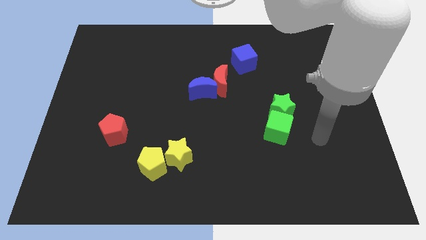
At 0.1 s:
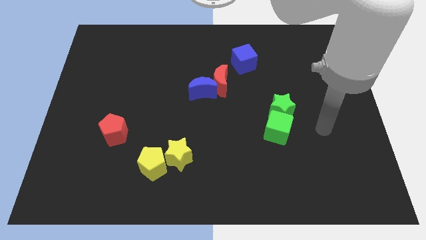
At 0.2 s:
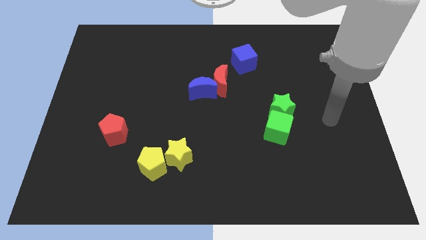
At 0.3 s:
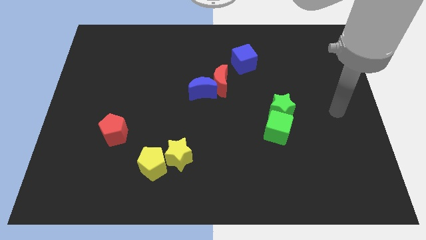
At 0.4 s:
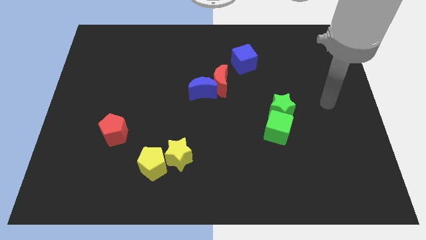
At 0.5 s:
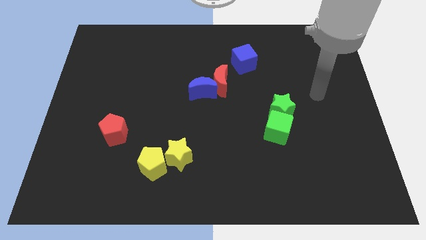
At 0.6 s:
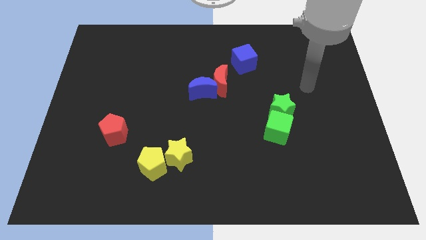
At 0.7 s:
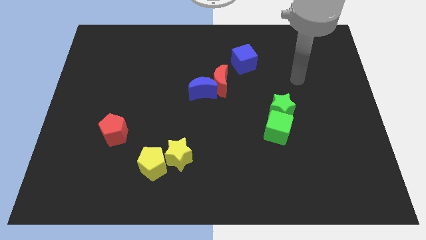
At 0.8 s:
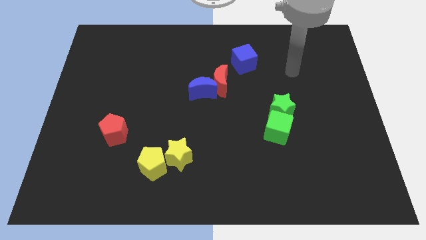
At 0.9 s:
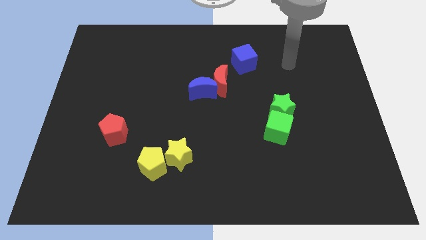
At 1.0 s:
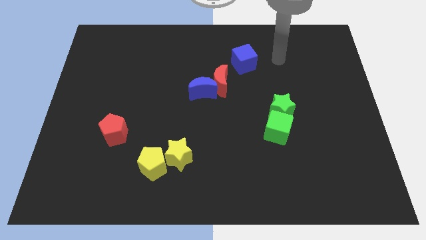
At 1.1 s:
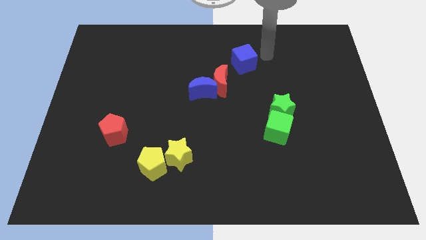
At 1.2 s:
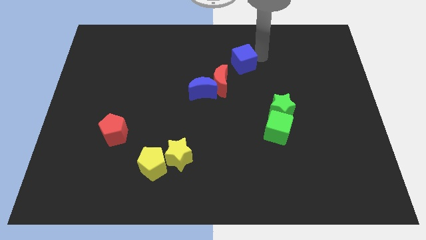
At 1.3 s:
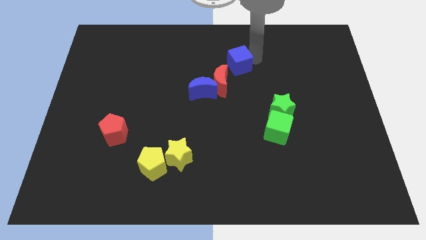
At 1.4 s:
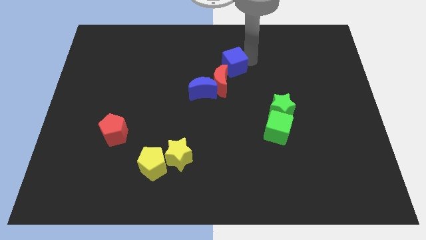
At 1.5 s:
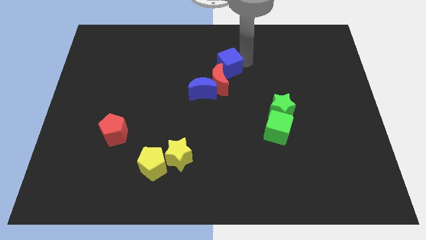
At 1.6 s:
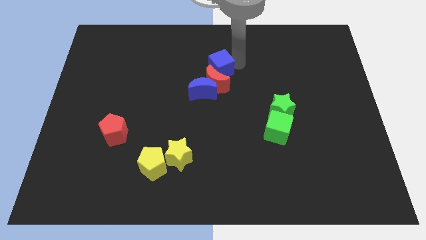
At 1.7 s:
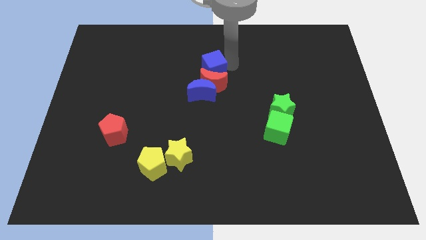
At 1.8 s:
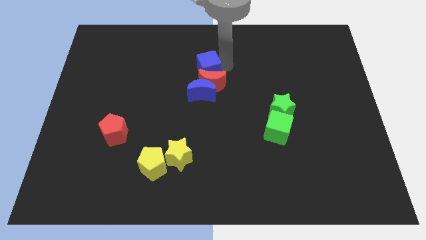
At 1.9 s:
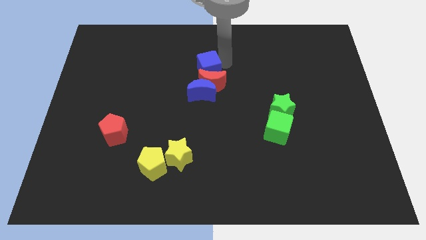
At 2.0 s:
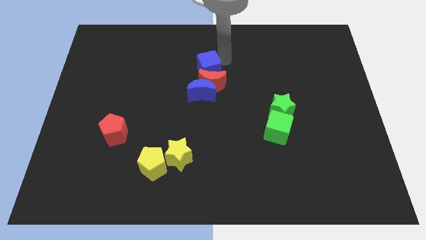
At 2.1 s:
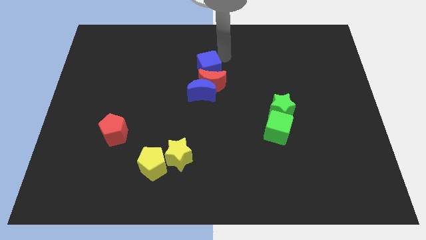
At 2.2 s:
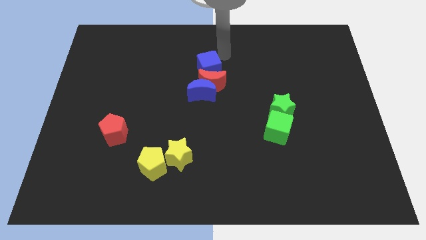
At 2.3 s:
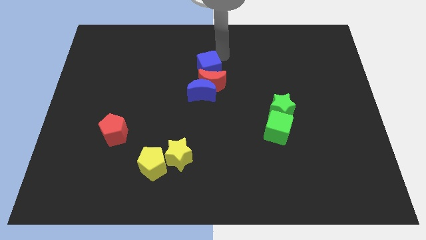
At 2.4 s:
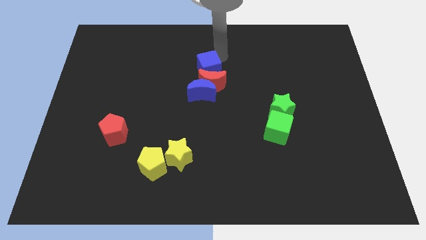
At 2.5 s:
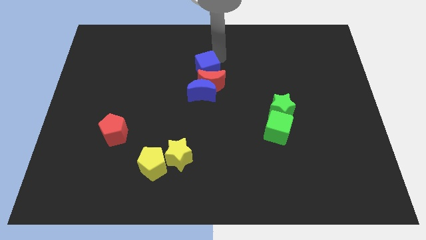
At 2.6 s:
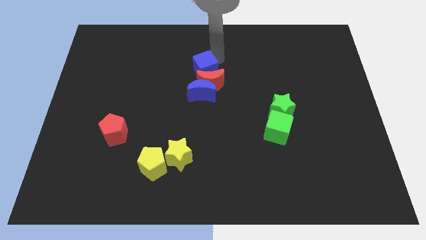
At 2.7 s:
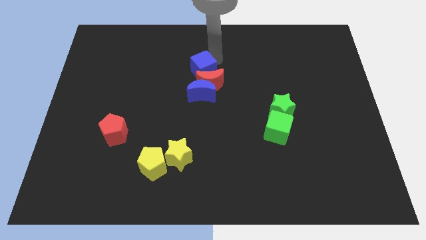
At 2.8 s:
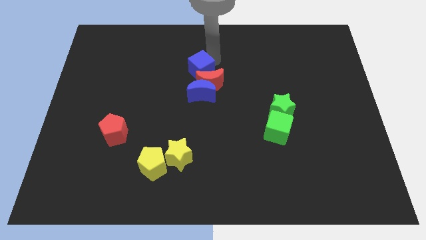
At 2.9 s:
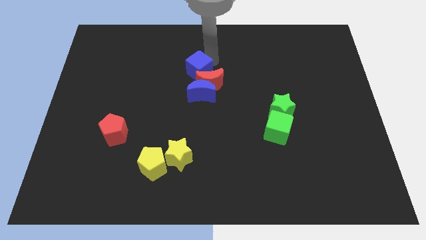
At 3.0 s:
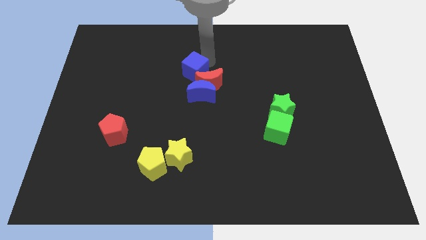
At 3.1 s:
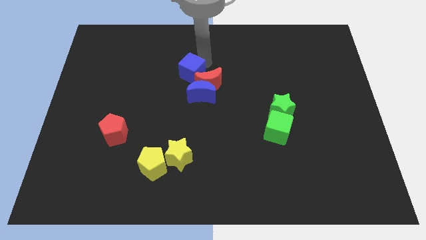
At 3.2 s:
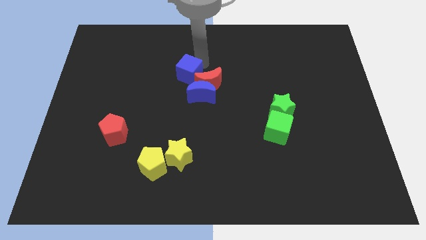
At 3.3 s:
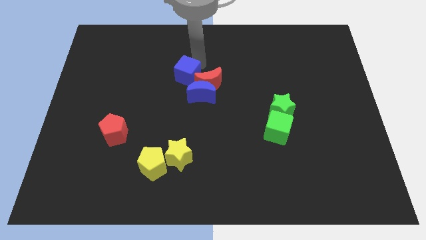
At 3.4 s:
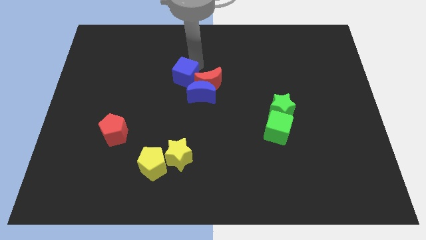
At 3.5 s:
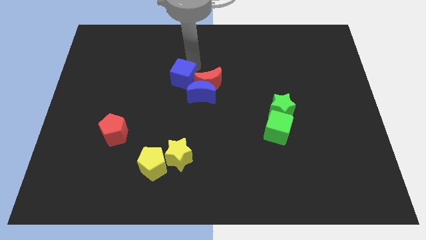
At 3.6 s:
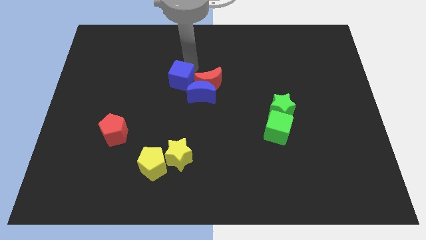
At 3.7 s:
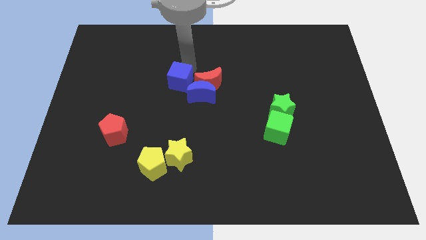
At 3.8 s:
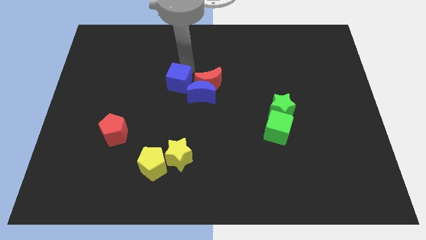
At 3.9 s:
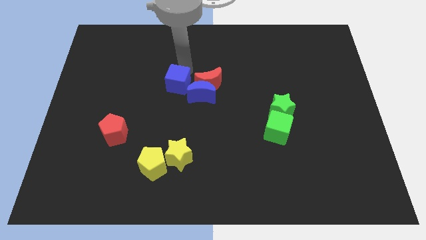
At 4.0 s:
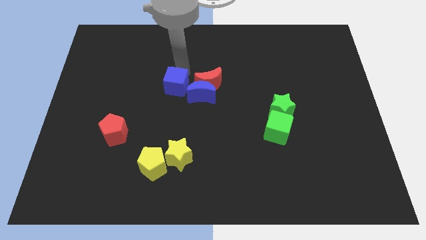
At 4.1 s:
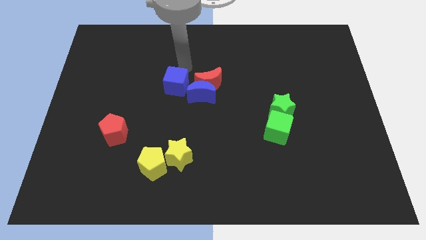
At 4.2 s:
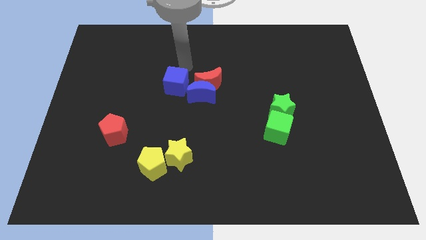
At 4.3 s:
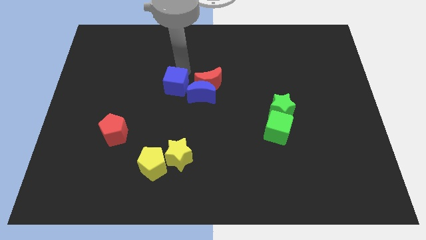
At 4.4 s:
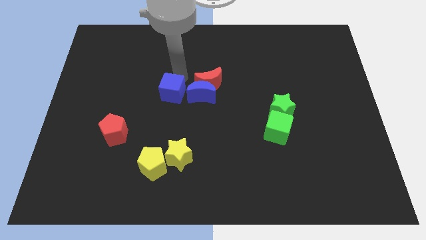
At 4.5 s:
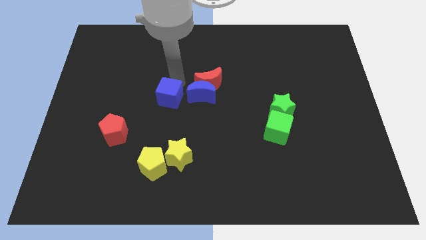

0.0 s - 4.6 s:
slide the blue cube downwards and left

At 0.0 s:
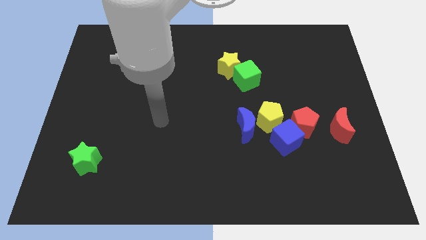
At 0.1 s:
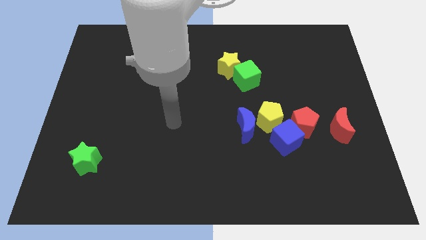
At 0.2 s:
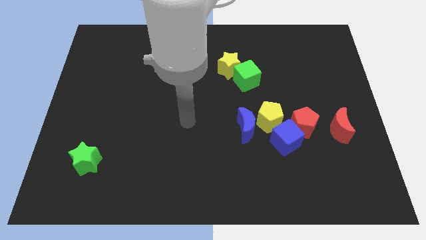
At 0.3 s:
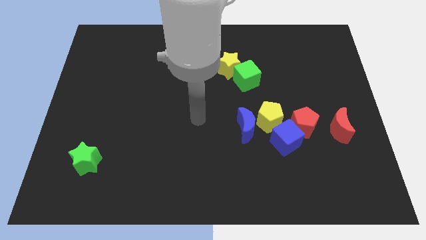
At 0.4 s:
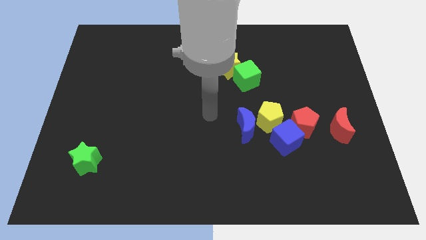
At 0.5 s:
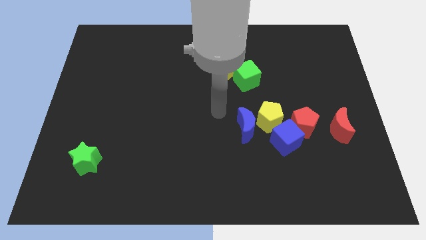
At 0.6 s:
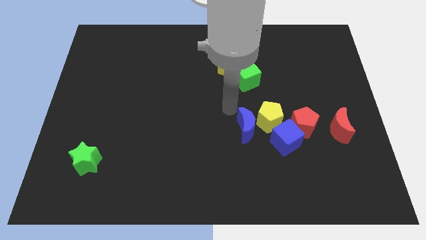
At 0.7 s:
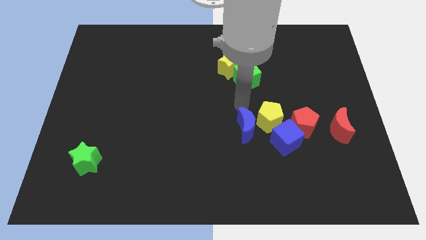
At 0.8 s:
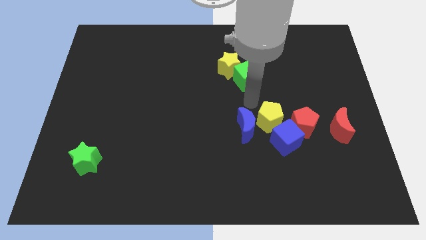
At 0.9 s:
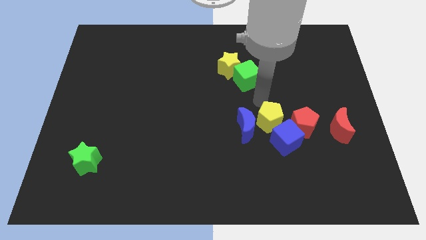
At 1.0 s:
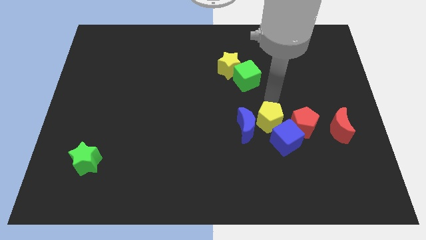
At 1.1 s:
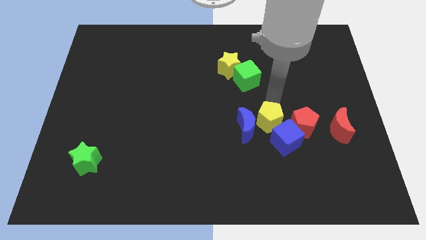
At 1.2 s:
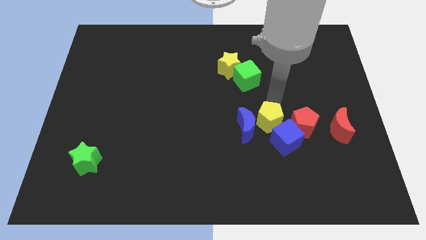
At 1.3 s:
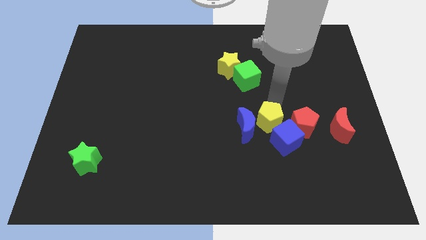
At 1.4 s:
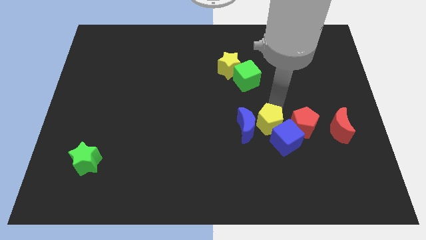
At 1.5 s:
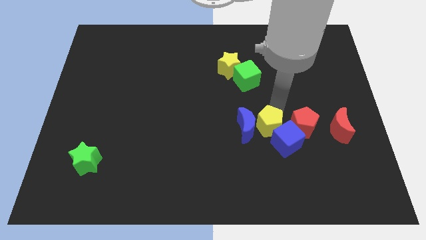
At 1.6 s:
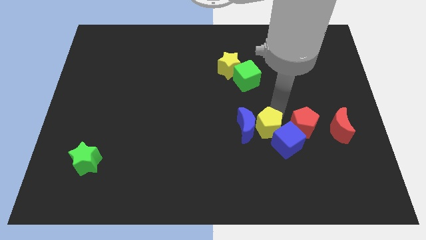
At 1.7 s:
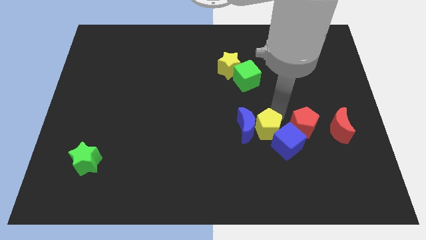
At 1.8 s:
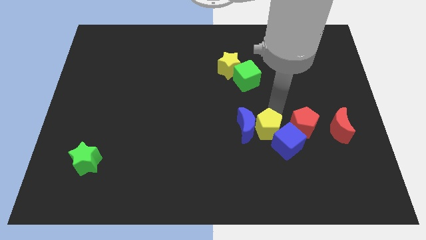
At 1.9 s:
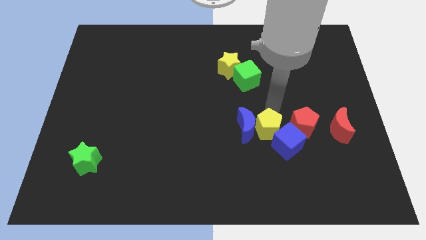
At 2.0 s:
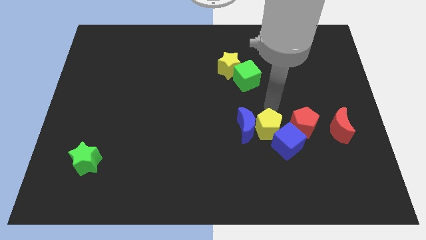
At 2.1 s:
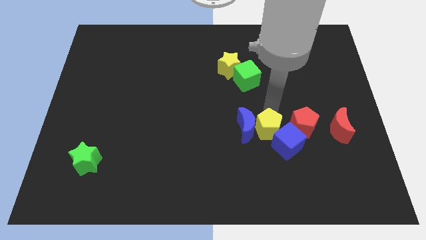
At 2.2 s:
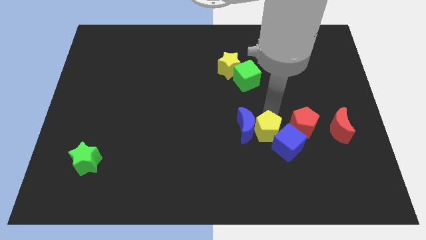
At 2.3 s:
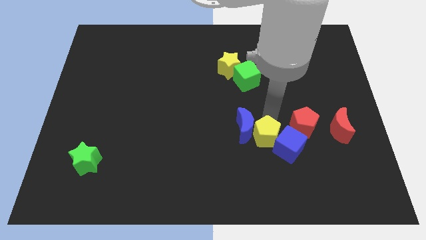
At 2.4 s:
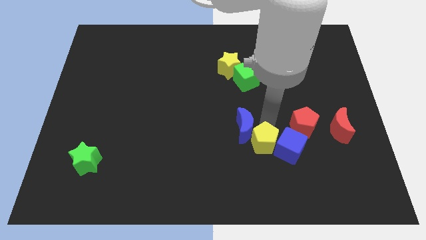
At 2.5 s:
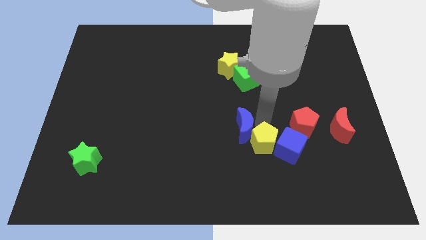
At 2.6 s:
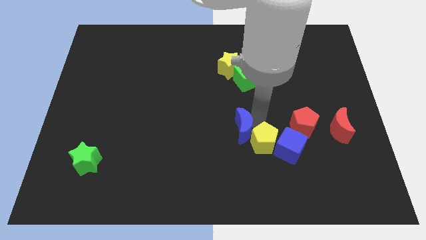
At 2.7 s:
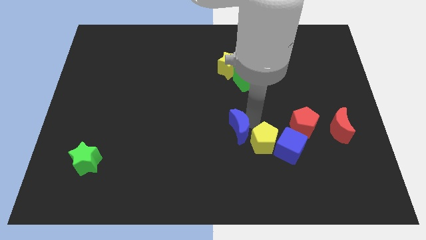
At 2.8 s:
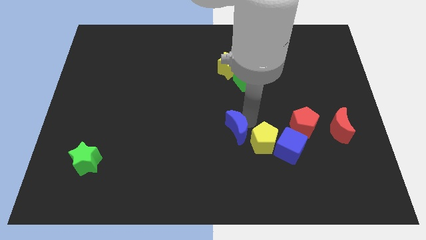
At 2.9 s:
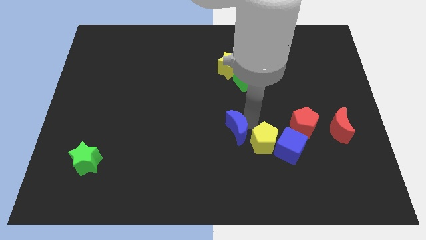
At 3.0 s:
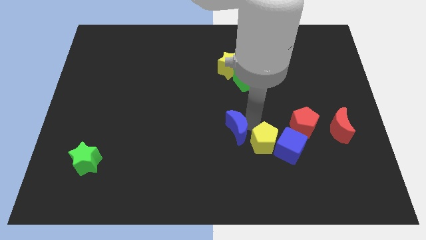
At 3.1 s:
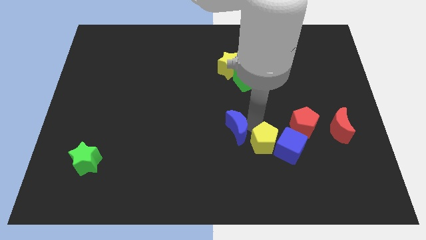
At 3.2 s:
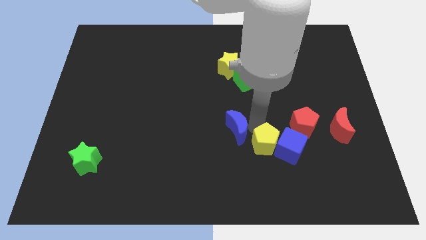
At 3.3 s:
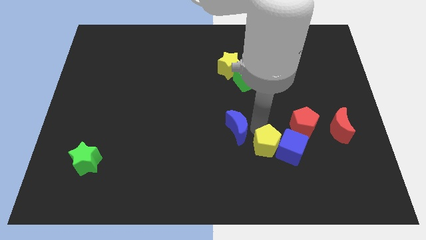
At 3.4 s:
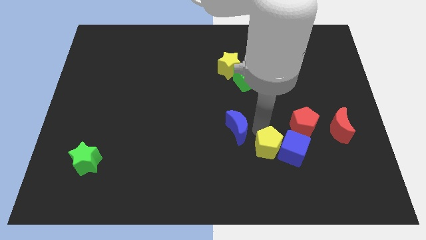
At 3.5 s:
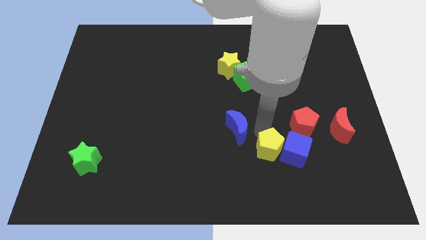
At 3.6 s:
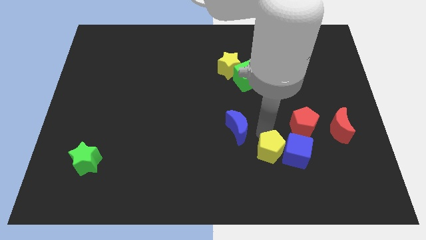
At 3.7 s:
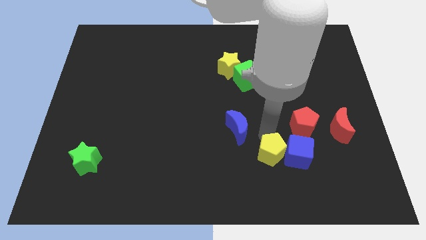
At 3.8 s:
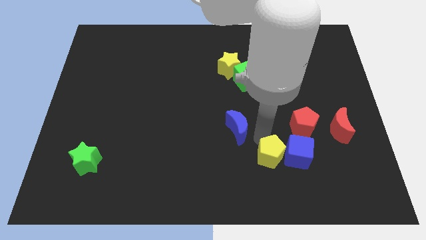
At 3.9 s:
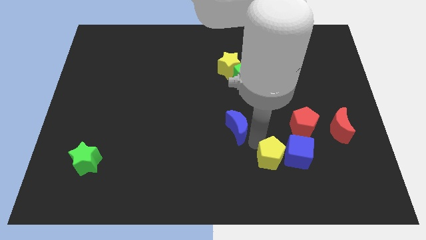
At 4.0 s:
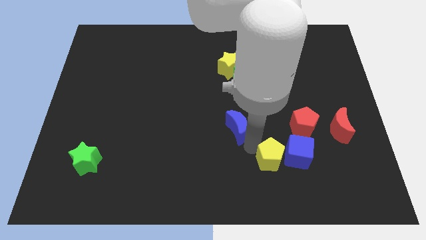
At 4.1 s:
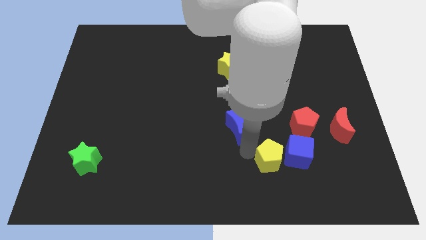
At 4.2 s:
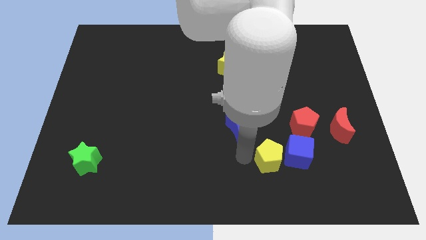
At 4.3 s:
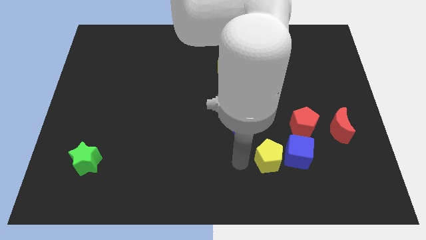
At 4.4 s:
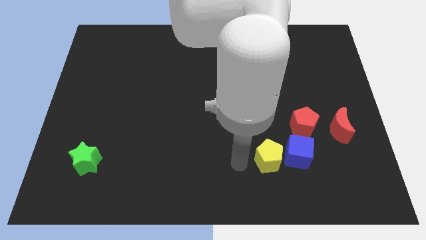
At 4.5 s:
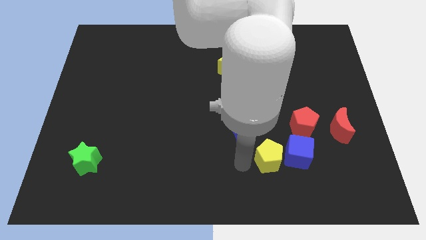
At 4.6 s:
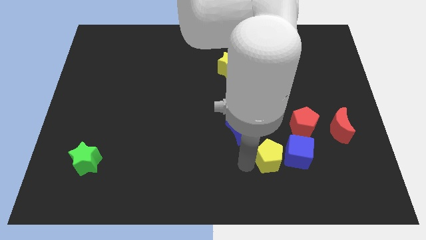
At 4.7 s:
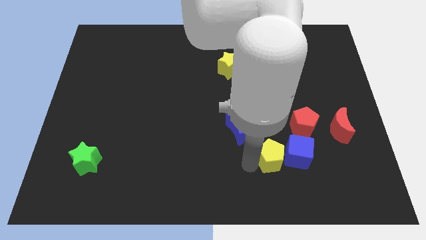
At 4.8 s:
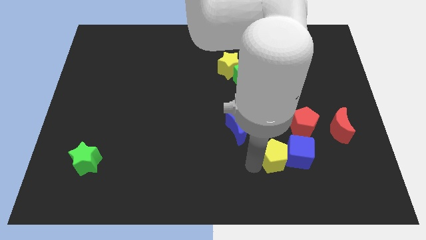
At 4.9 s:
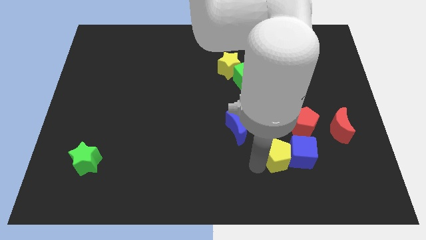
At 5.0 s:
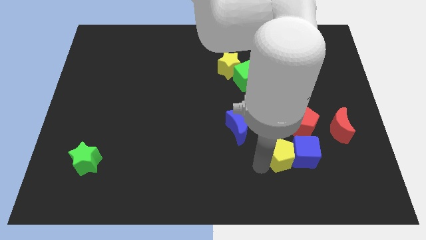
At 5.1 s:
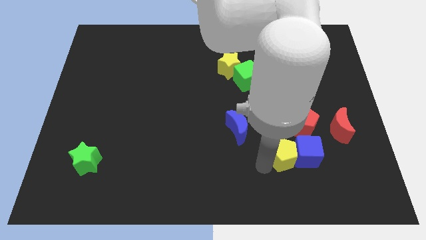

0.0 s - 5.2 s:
push the yellow pentagon a little bit down and to the right
